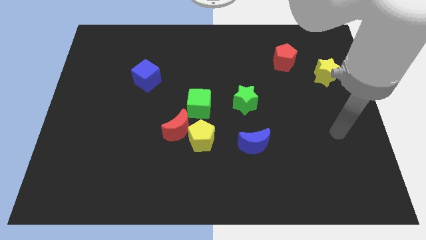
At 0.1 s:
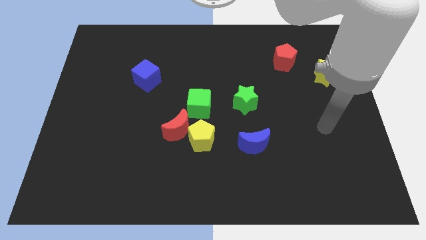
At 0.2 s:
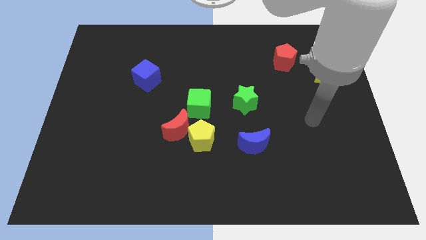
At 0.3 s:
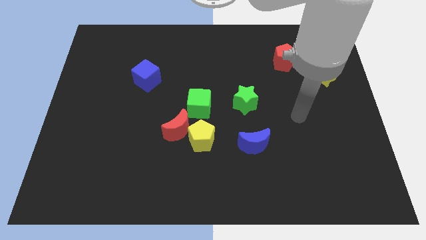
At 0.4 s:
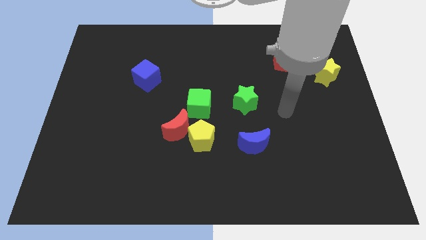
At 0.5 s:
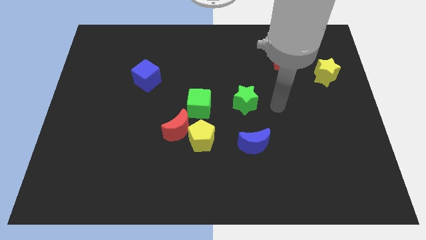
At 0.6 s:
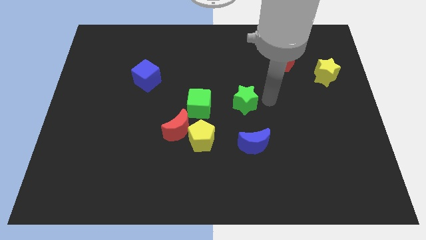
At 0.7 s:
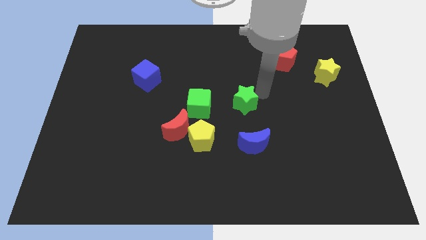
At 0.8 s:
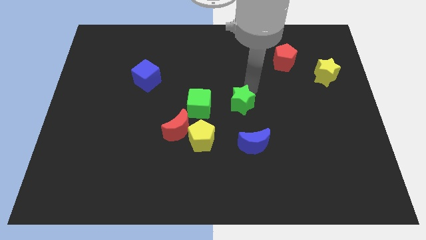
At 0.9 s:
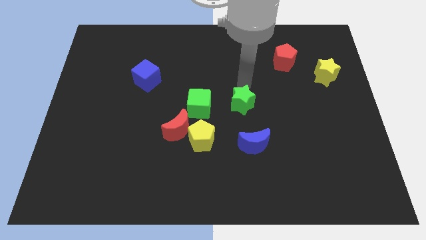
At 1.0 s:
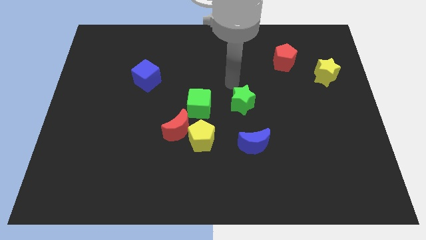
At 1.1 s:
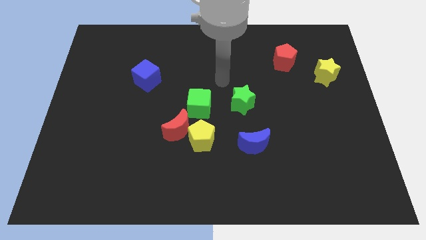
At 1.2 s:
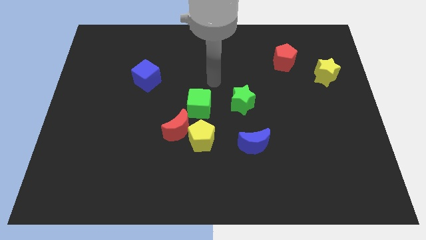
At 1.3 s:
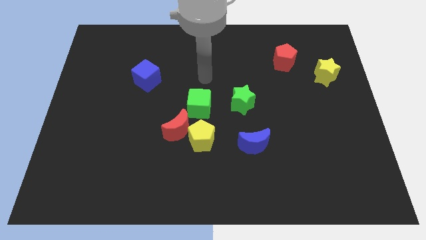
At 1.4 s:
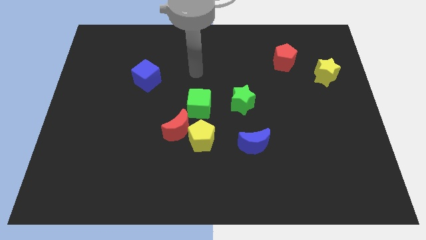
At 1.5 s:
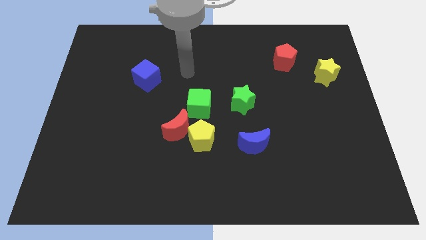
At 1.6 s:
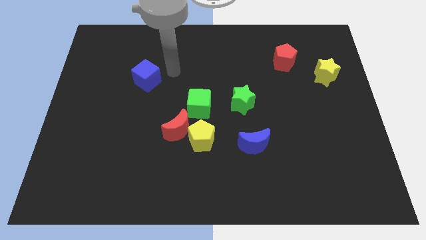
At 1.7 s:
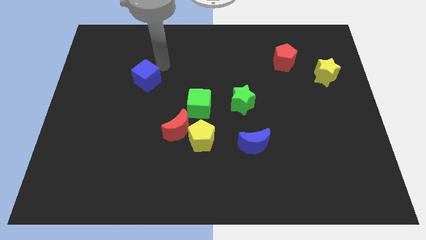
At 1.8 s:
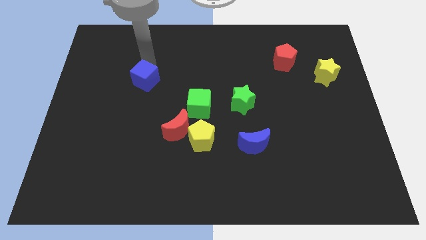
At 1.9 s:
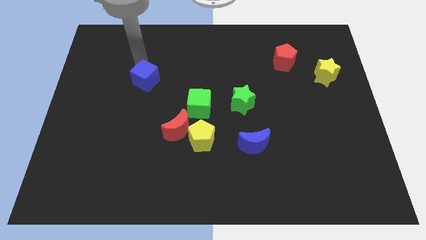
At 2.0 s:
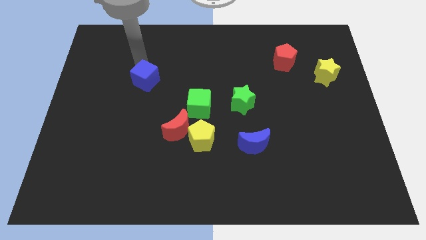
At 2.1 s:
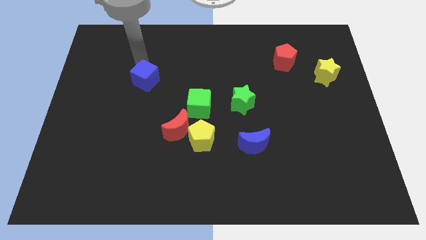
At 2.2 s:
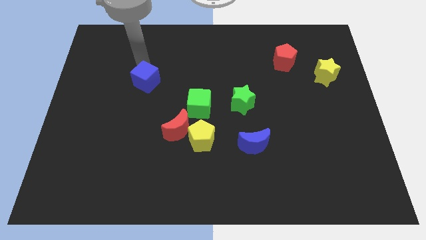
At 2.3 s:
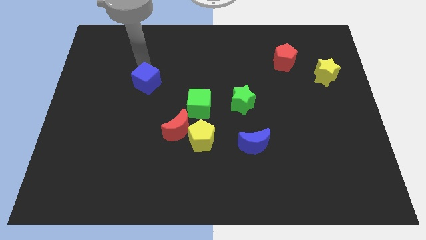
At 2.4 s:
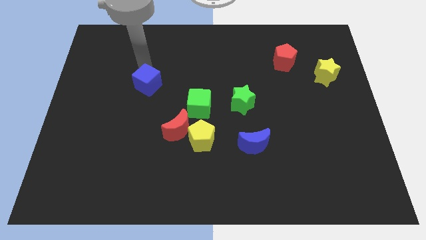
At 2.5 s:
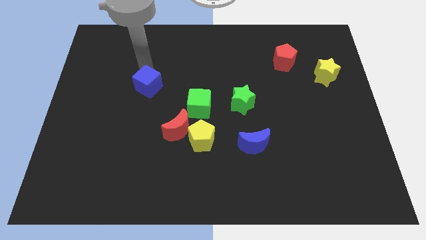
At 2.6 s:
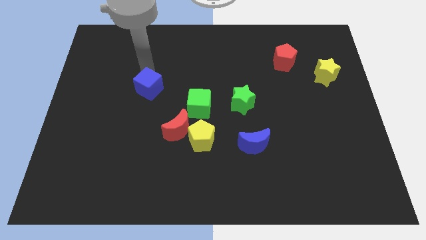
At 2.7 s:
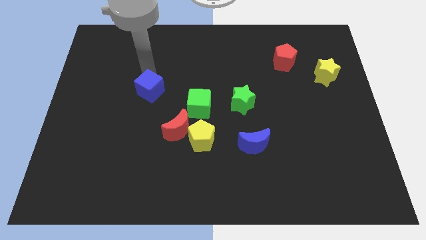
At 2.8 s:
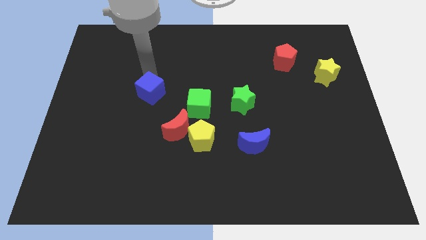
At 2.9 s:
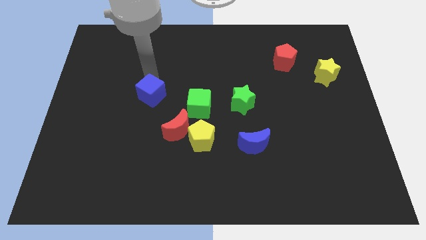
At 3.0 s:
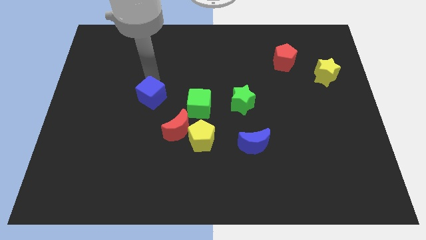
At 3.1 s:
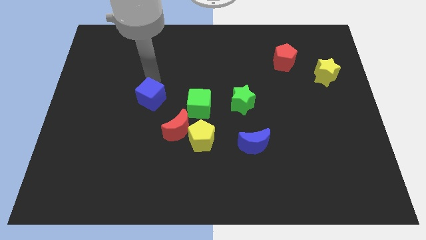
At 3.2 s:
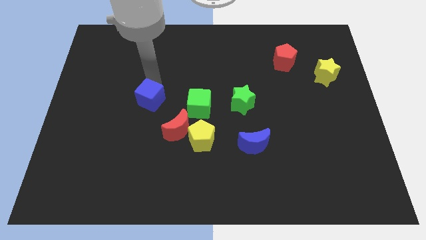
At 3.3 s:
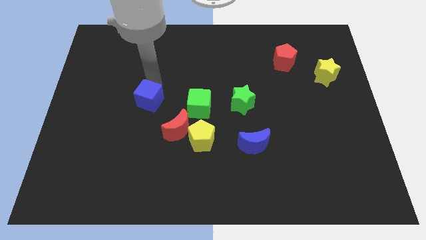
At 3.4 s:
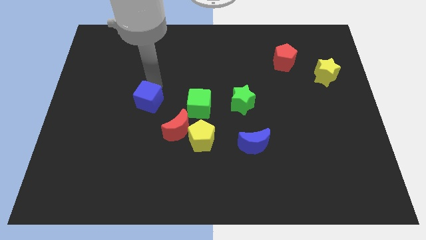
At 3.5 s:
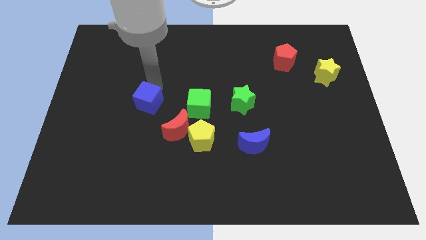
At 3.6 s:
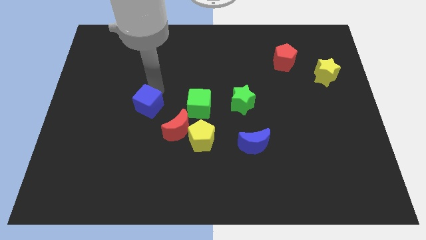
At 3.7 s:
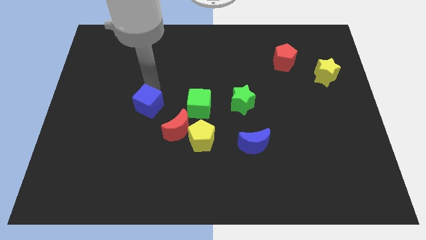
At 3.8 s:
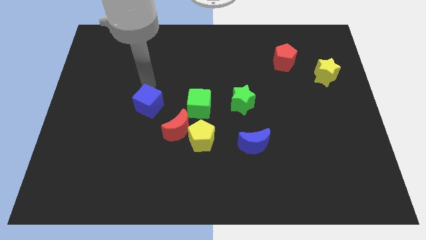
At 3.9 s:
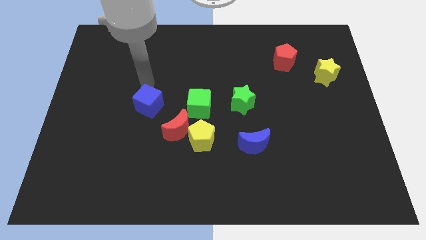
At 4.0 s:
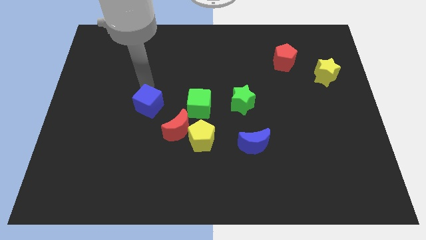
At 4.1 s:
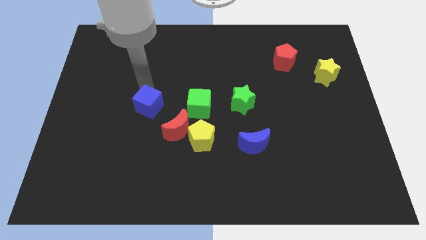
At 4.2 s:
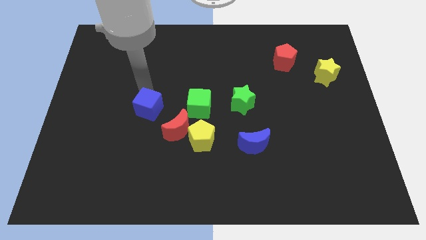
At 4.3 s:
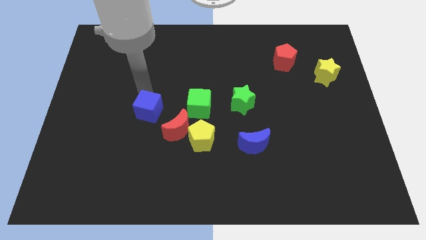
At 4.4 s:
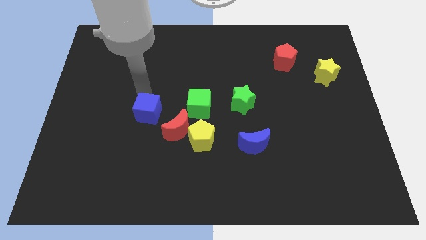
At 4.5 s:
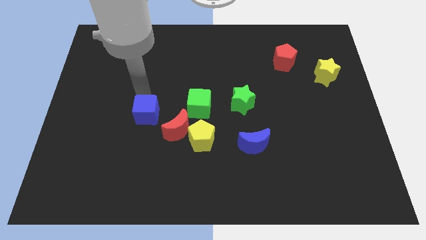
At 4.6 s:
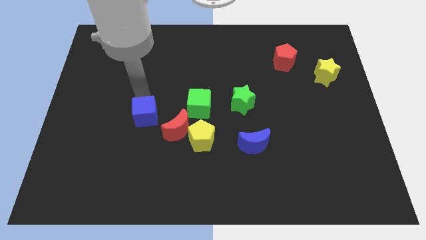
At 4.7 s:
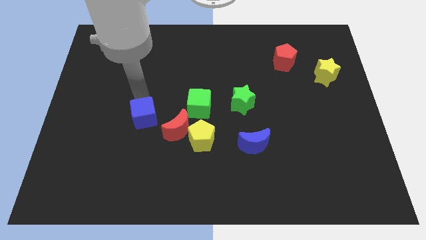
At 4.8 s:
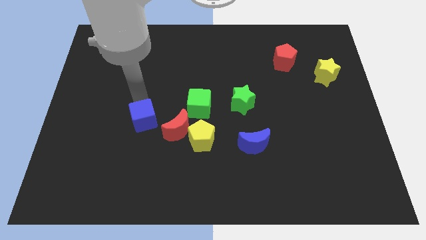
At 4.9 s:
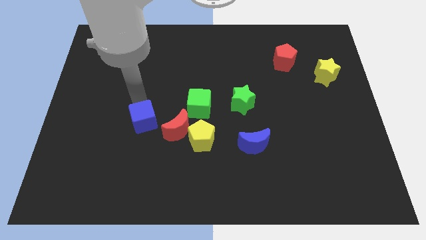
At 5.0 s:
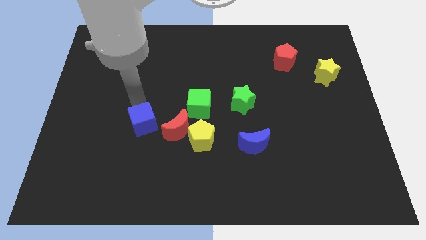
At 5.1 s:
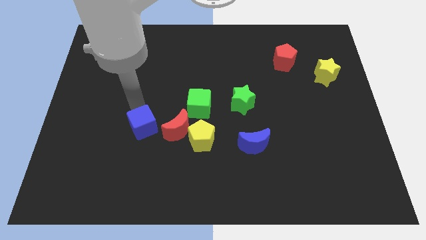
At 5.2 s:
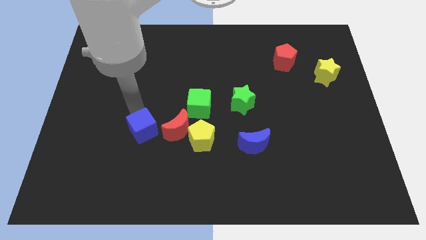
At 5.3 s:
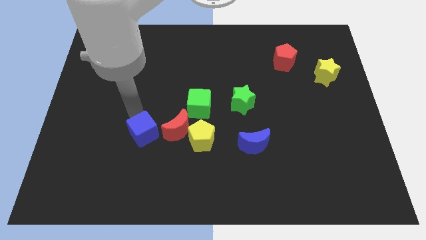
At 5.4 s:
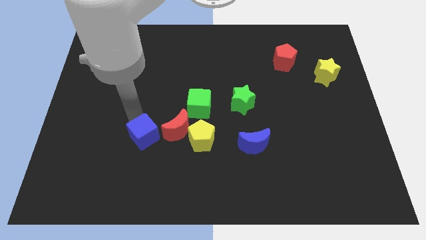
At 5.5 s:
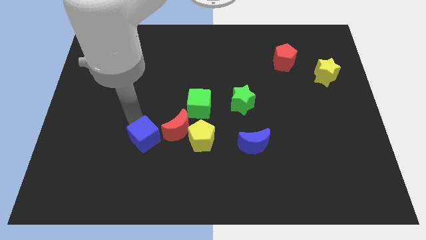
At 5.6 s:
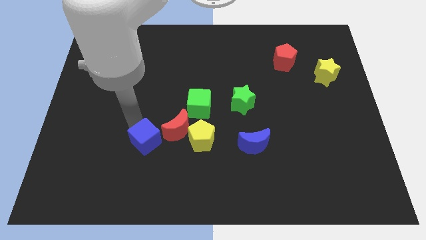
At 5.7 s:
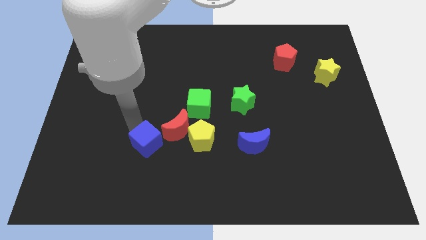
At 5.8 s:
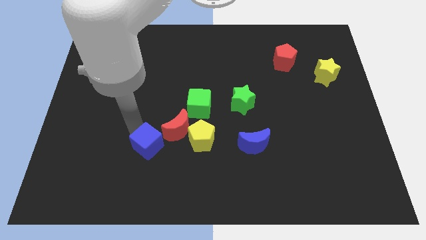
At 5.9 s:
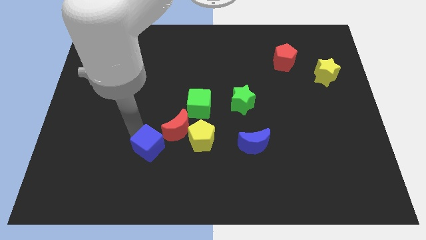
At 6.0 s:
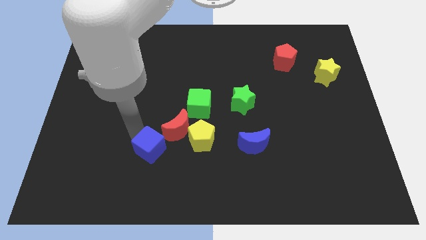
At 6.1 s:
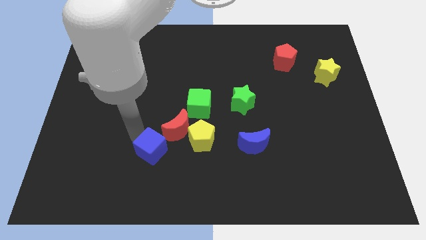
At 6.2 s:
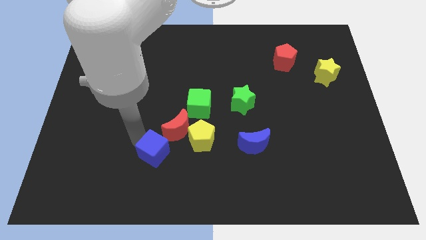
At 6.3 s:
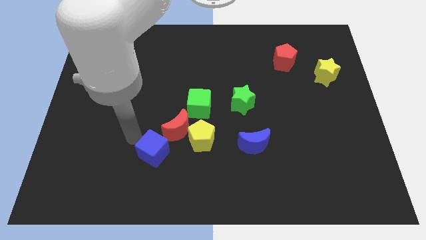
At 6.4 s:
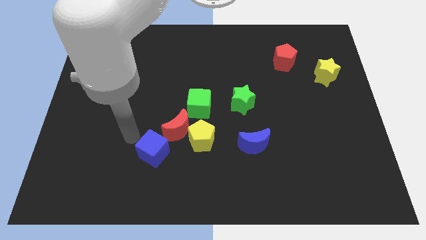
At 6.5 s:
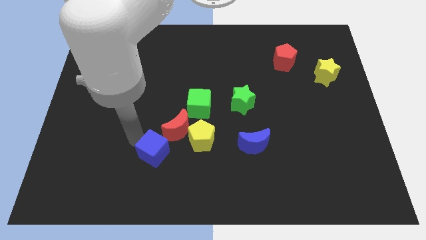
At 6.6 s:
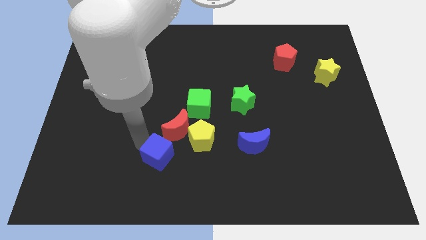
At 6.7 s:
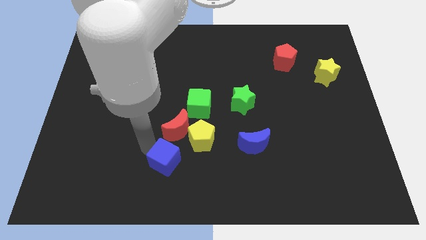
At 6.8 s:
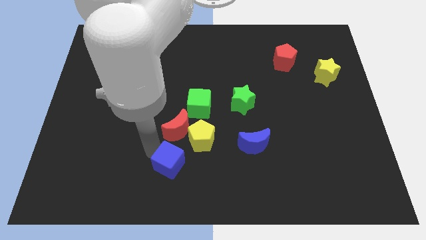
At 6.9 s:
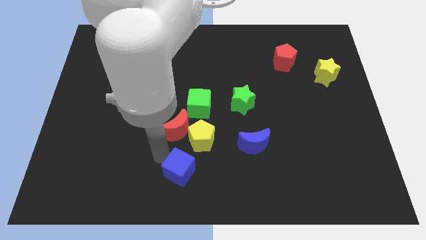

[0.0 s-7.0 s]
put the blue cube to the bottom
